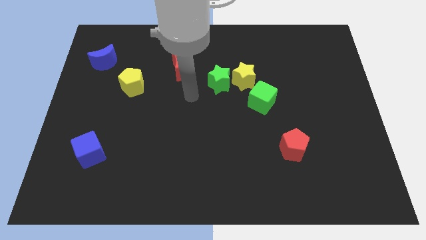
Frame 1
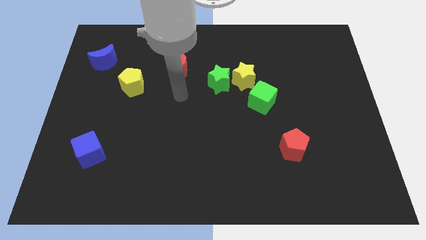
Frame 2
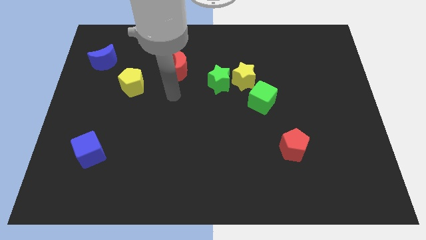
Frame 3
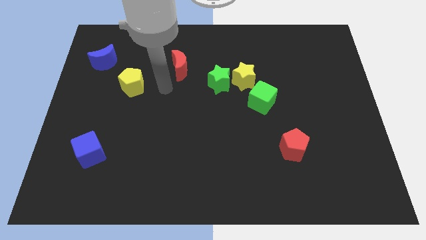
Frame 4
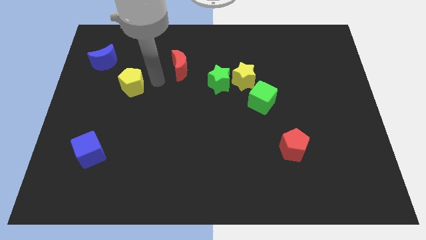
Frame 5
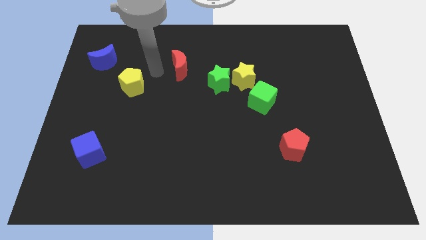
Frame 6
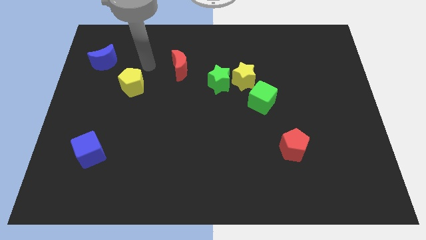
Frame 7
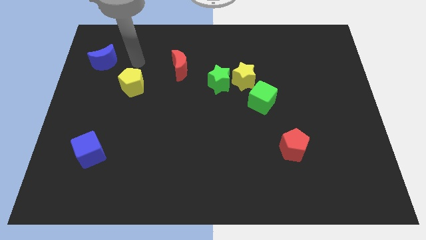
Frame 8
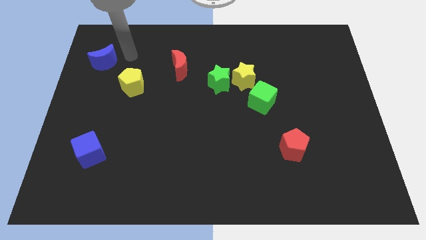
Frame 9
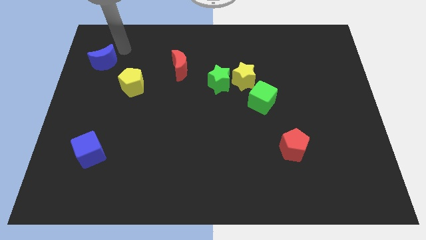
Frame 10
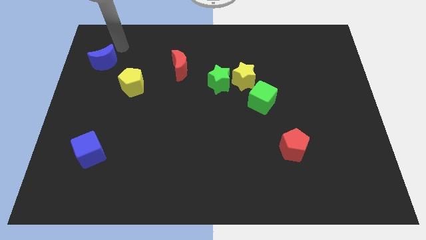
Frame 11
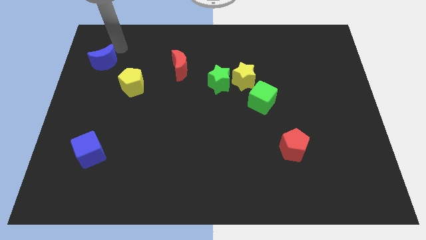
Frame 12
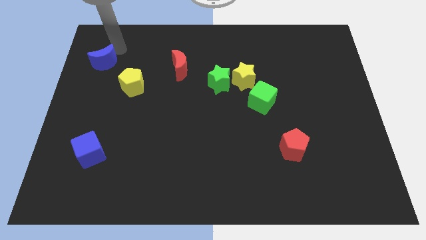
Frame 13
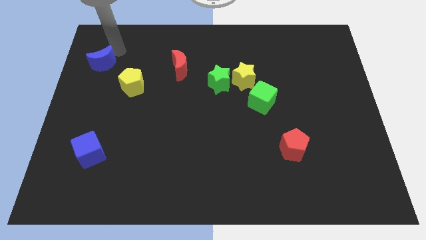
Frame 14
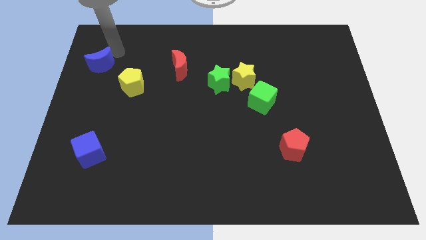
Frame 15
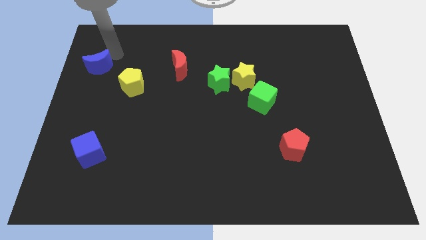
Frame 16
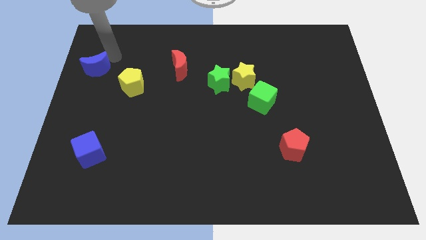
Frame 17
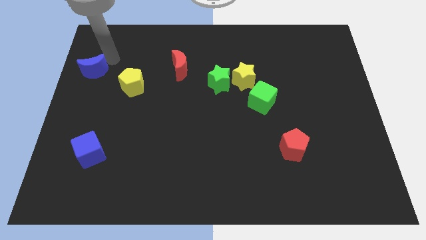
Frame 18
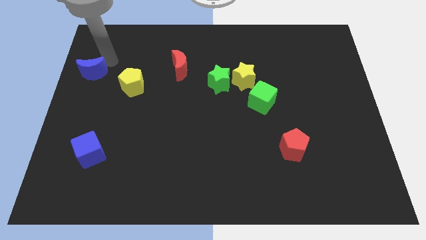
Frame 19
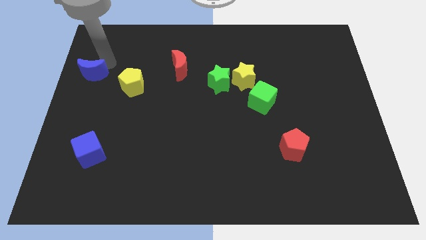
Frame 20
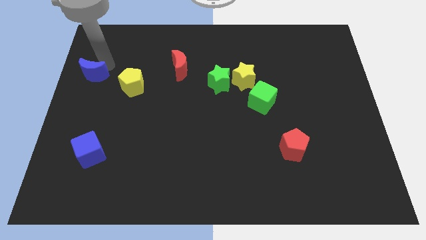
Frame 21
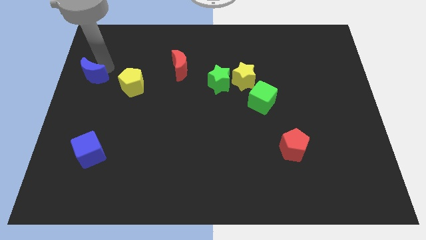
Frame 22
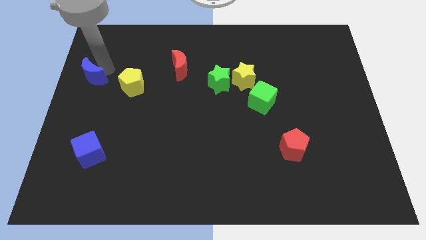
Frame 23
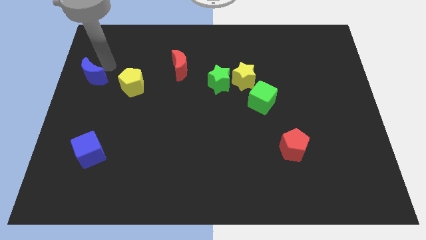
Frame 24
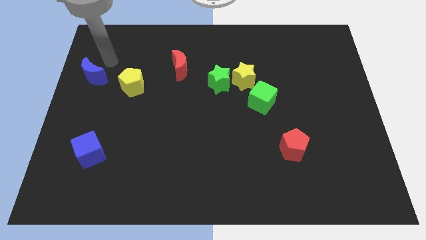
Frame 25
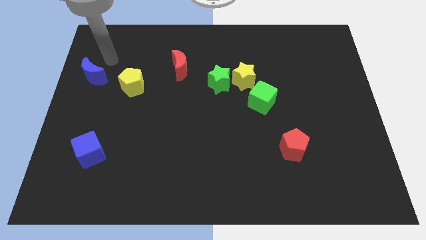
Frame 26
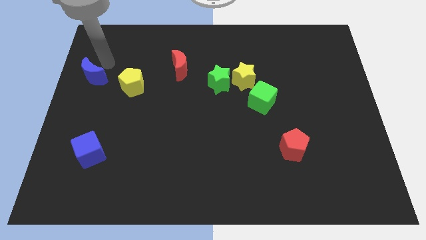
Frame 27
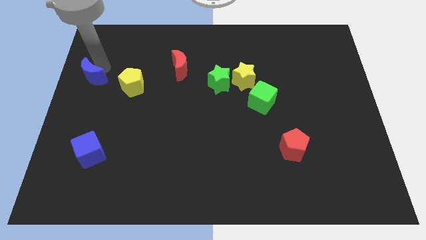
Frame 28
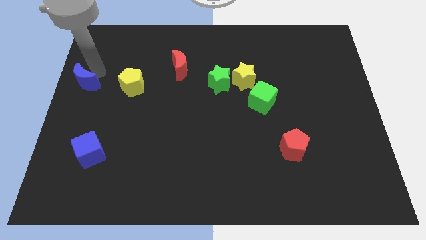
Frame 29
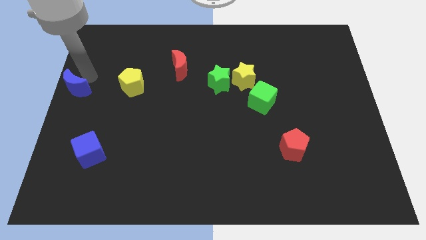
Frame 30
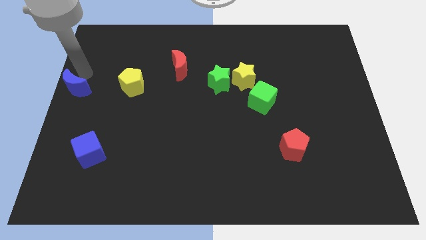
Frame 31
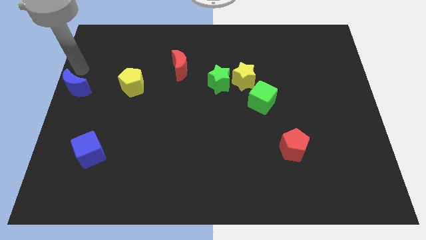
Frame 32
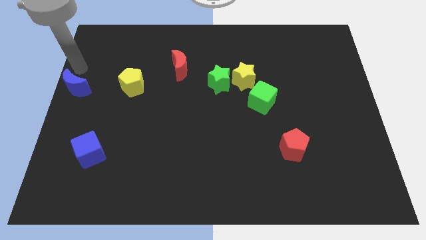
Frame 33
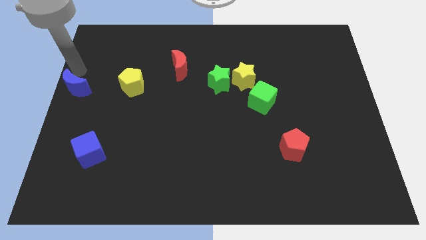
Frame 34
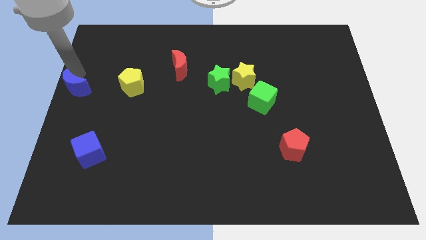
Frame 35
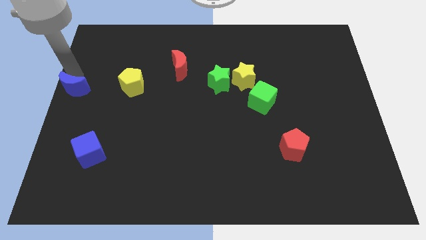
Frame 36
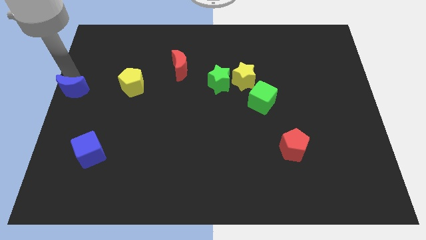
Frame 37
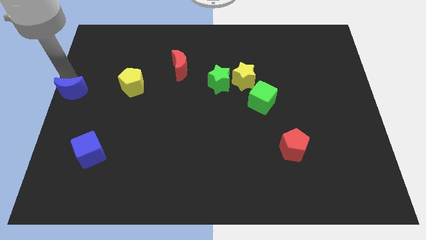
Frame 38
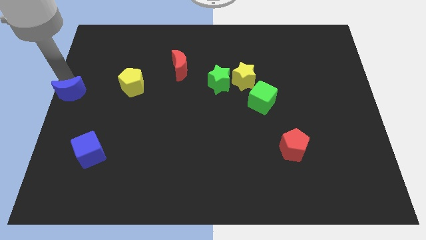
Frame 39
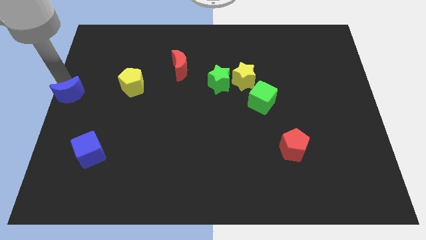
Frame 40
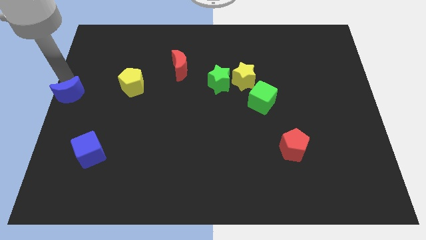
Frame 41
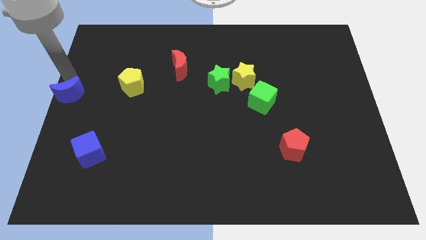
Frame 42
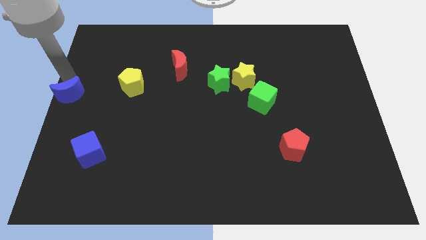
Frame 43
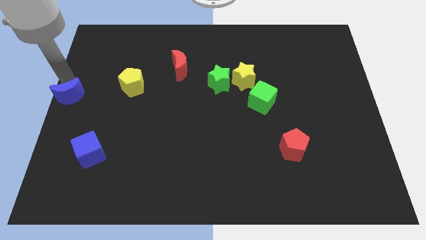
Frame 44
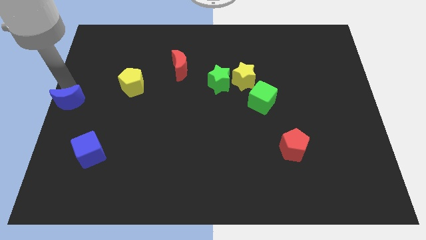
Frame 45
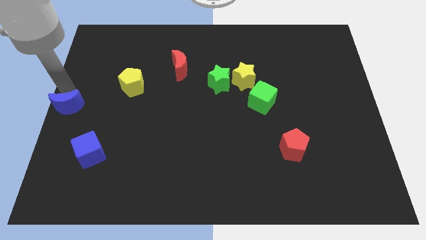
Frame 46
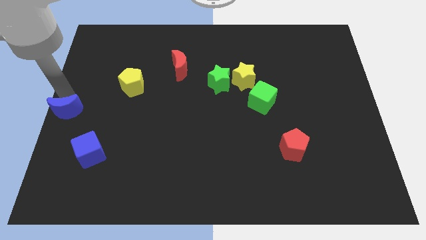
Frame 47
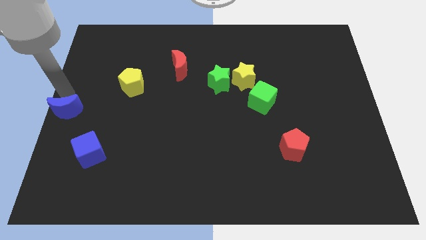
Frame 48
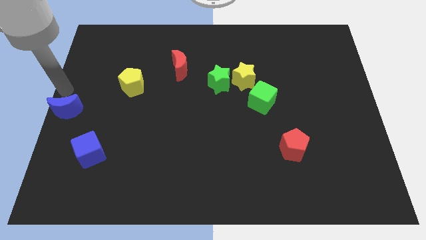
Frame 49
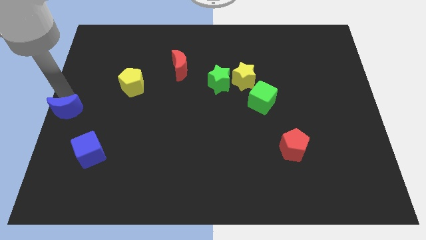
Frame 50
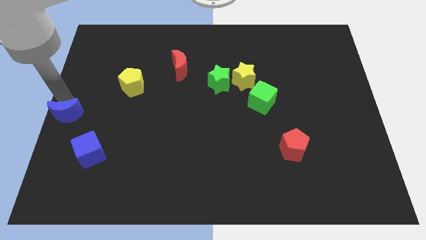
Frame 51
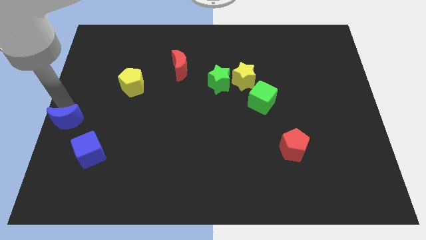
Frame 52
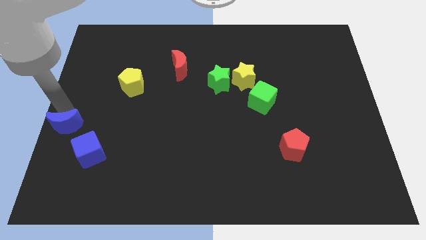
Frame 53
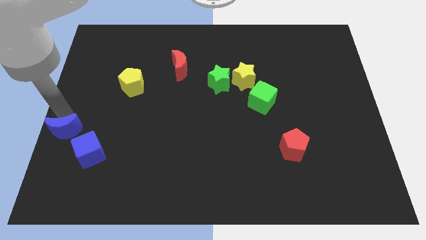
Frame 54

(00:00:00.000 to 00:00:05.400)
push the blue moon down

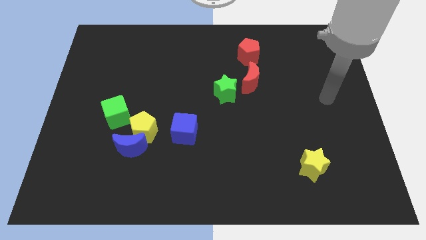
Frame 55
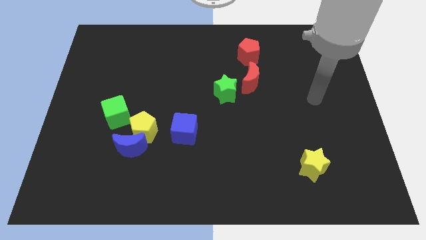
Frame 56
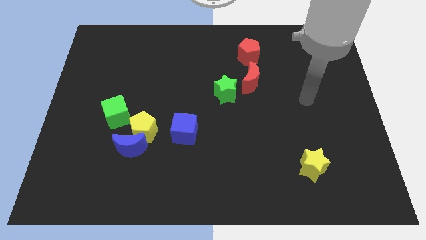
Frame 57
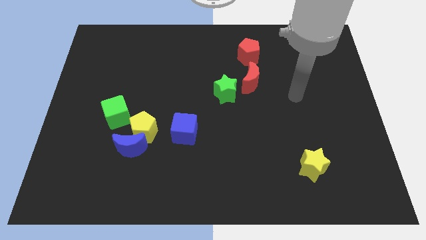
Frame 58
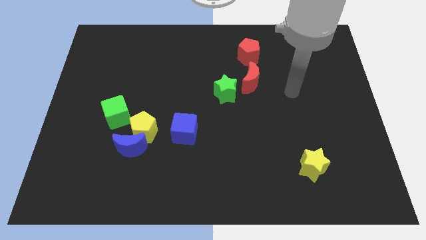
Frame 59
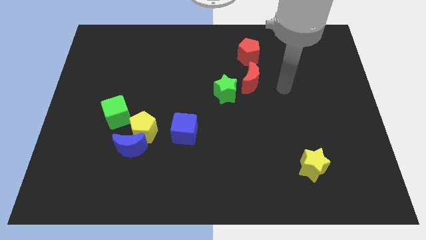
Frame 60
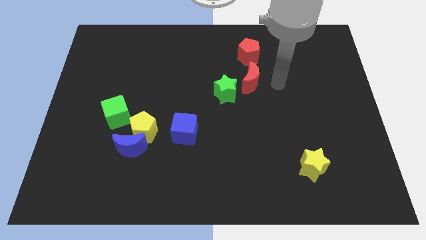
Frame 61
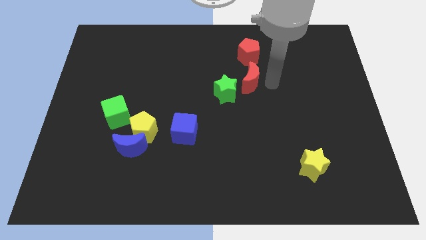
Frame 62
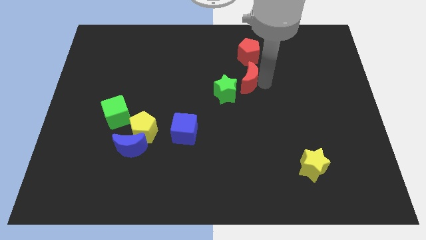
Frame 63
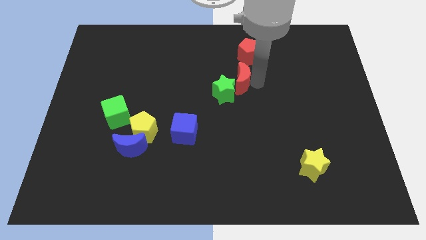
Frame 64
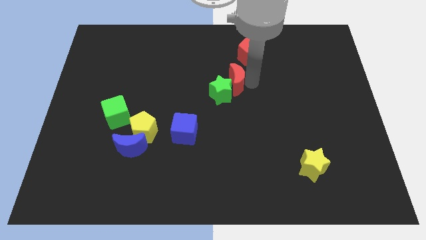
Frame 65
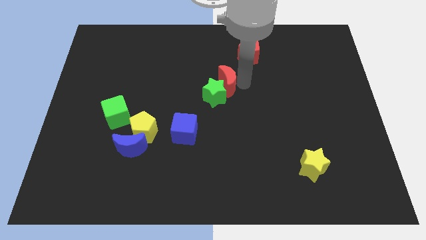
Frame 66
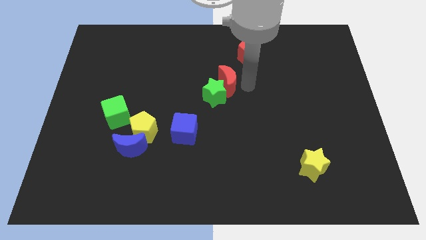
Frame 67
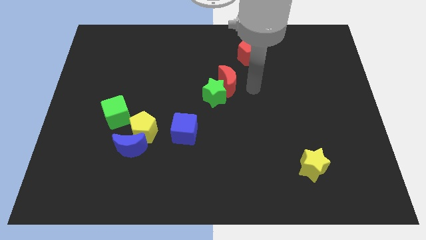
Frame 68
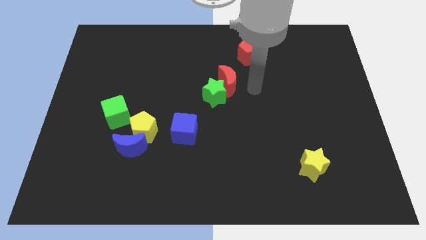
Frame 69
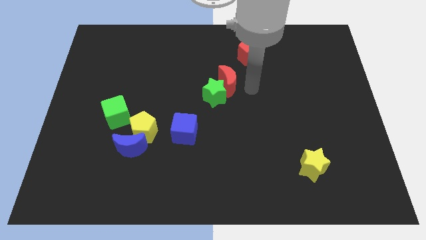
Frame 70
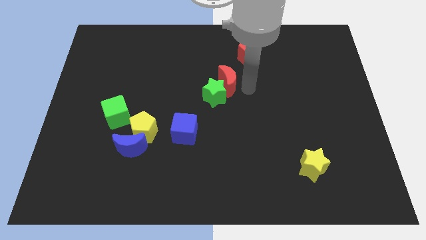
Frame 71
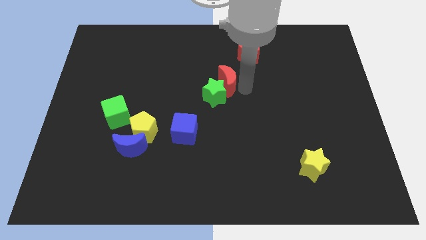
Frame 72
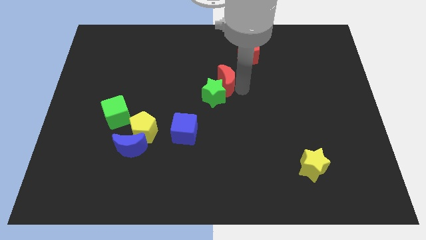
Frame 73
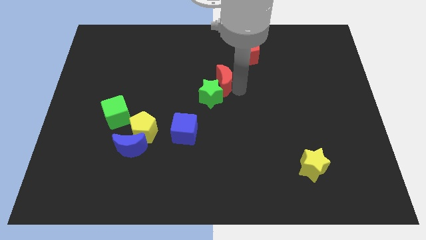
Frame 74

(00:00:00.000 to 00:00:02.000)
slightly slide the red moon to the left

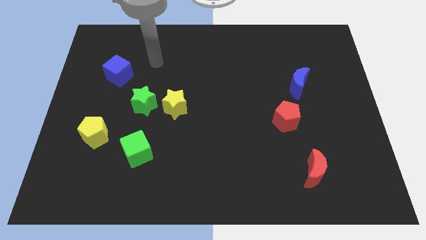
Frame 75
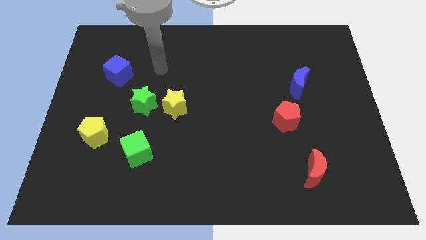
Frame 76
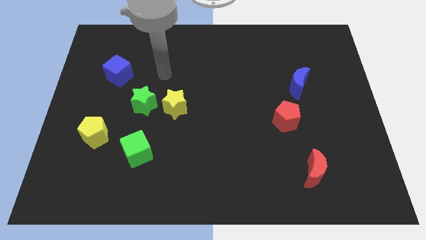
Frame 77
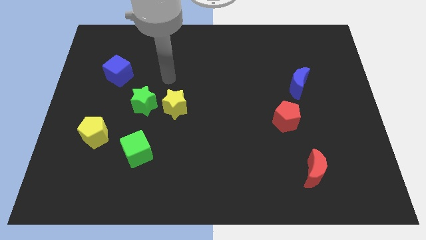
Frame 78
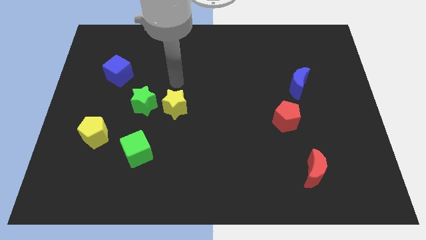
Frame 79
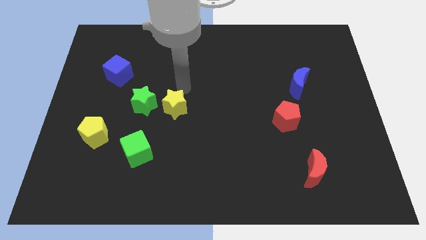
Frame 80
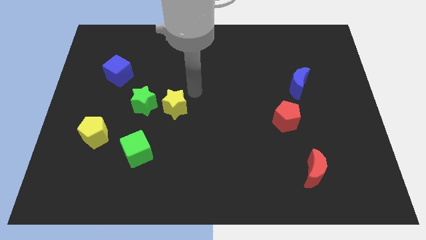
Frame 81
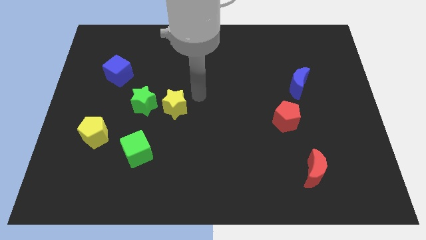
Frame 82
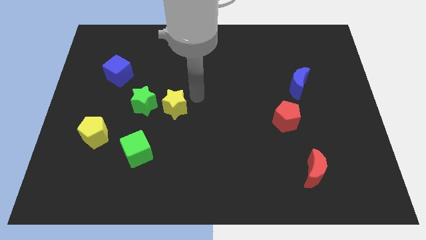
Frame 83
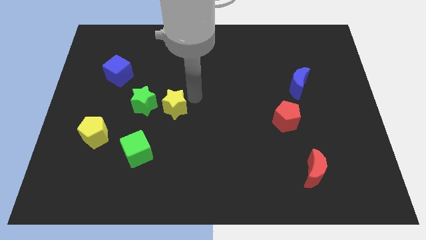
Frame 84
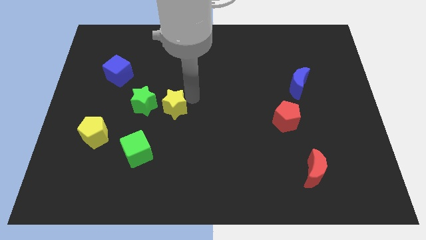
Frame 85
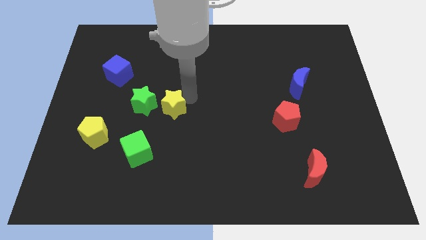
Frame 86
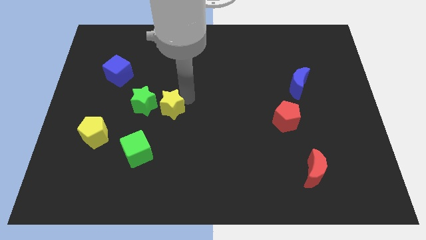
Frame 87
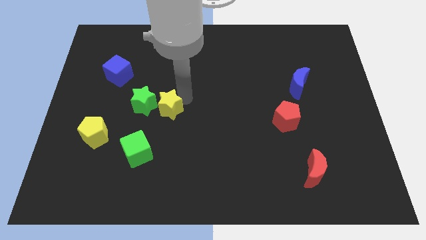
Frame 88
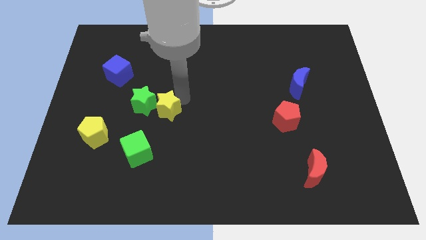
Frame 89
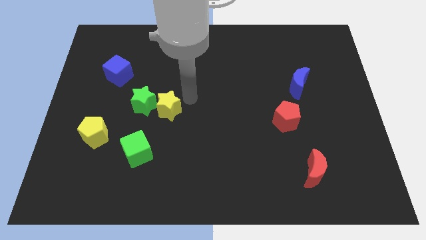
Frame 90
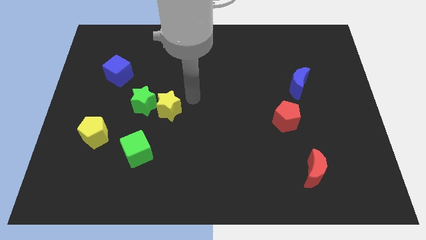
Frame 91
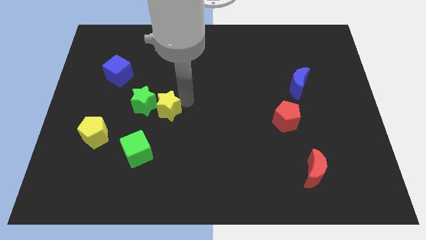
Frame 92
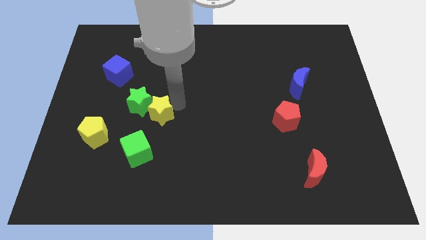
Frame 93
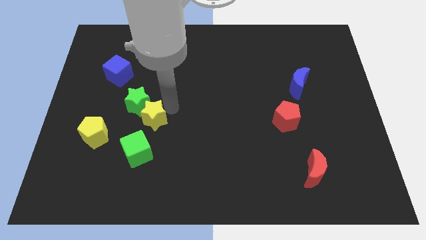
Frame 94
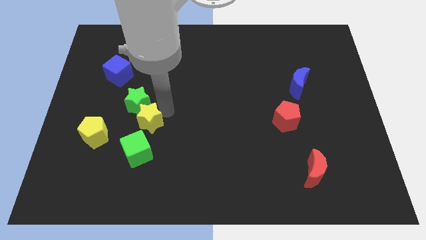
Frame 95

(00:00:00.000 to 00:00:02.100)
move the yellow star a little down and left diagonally
